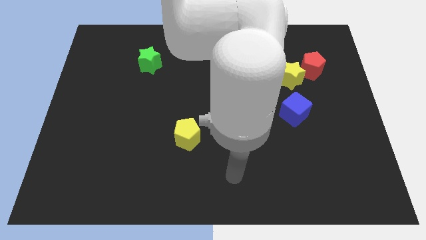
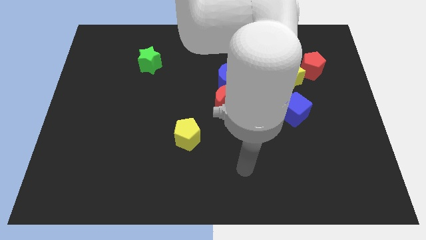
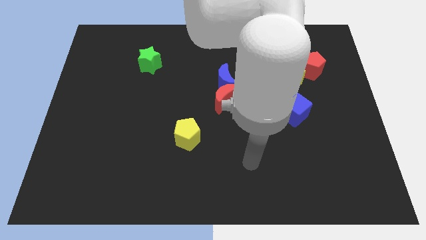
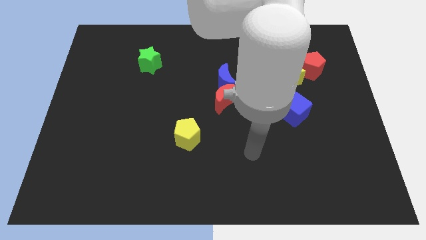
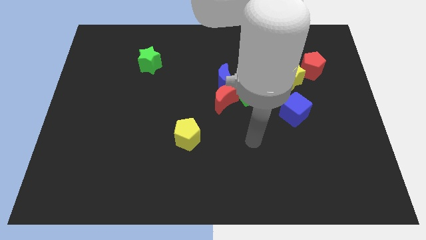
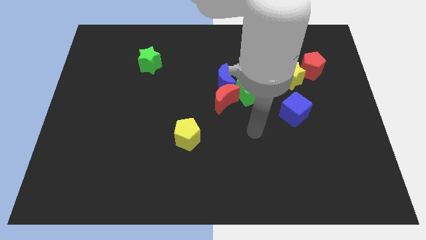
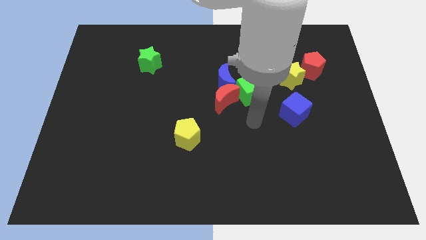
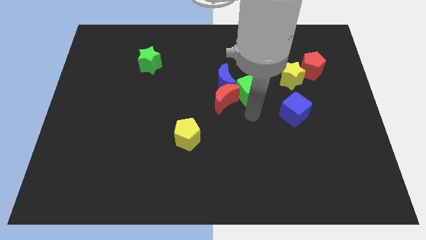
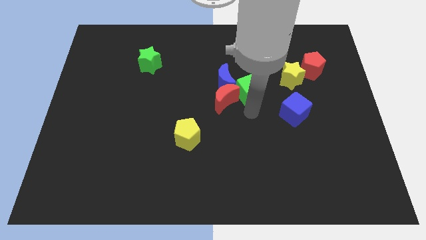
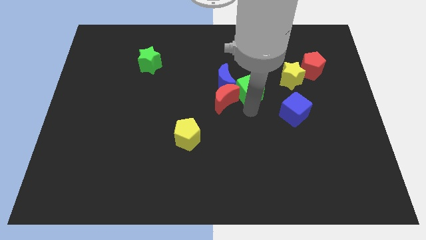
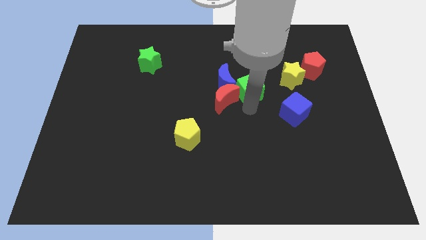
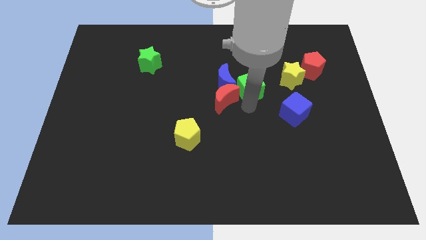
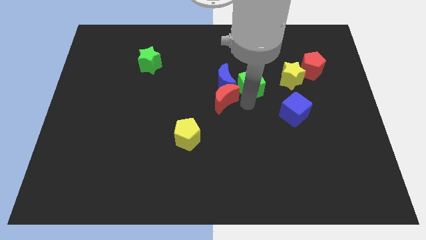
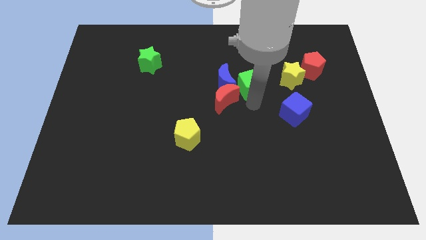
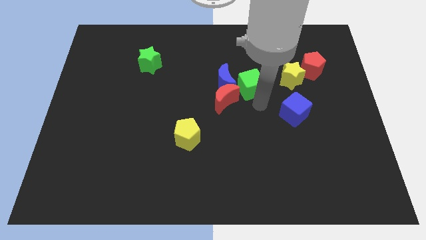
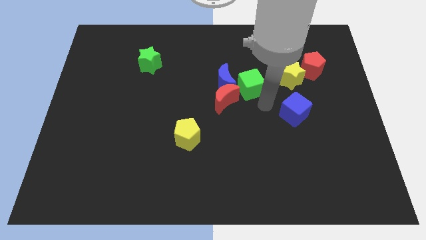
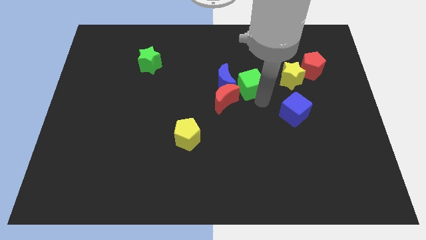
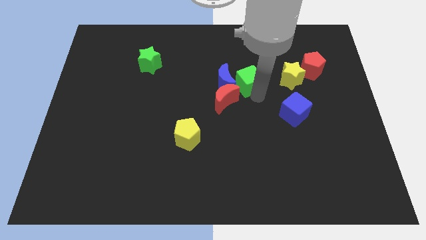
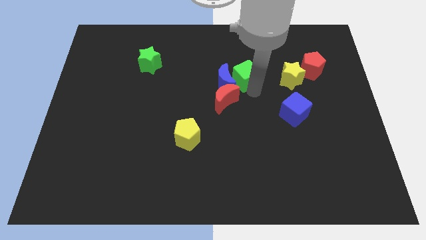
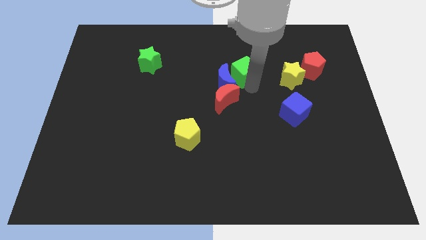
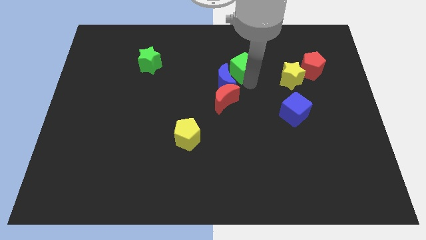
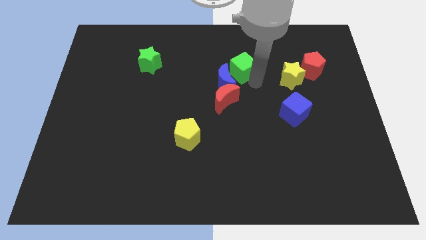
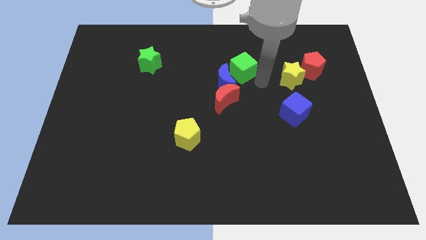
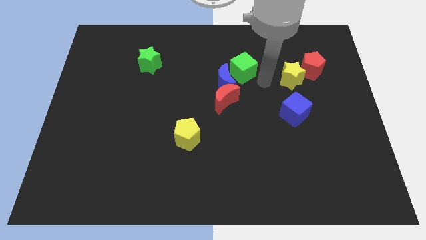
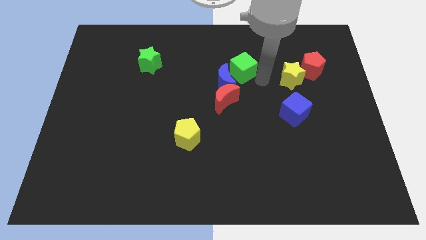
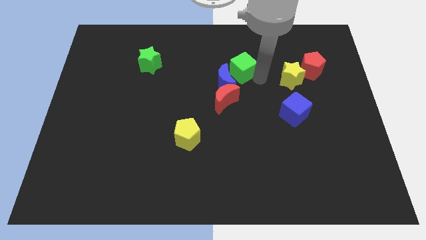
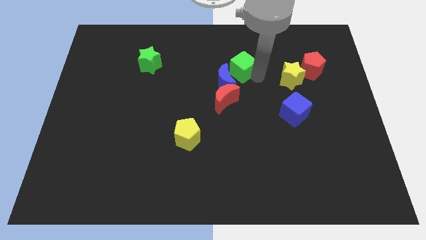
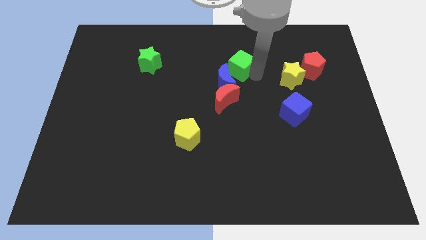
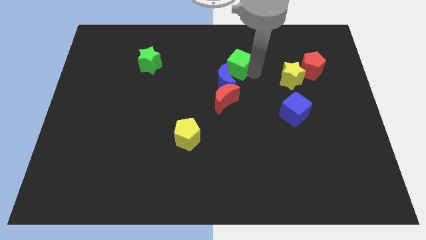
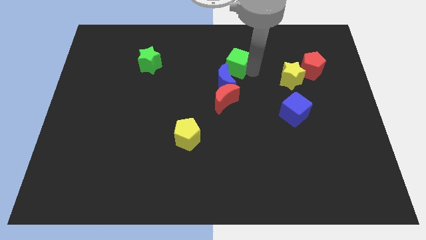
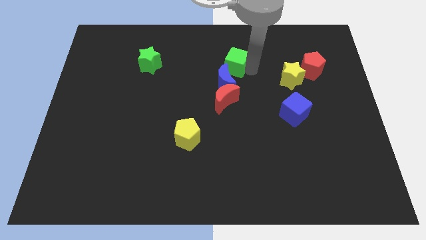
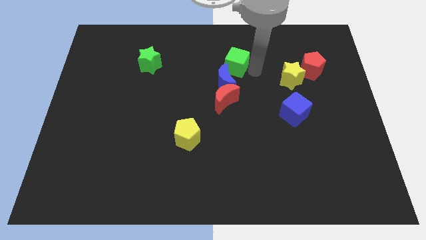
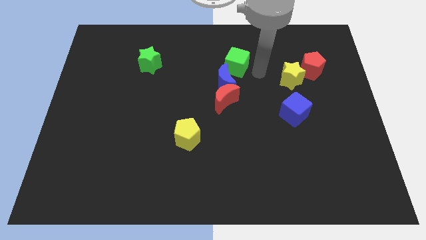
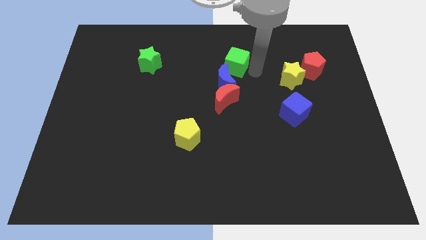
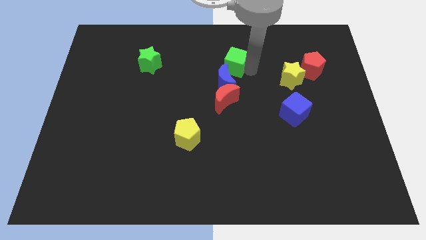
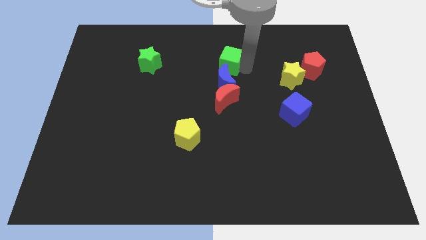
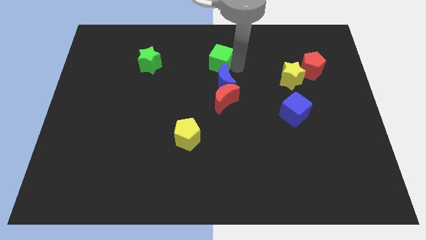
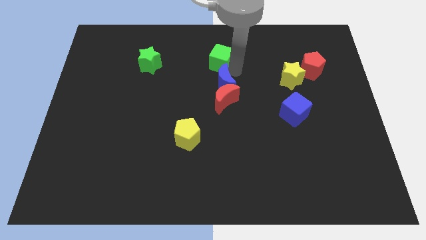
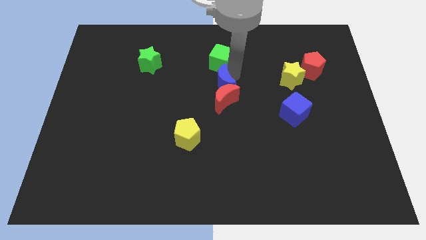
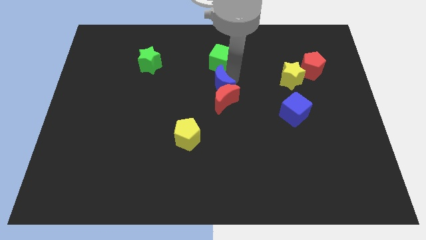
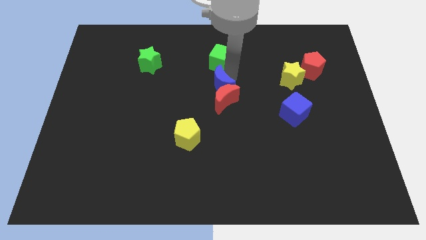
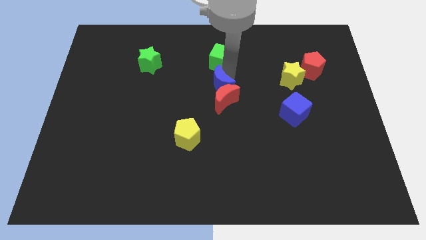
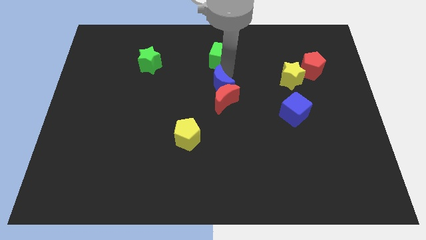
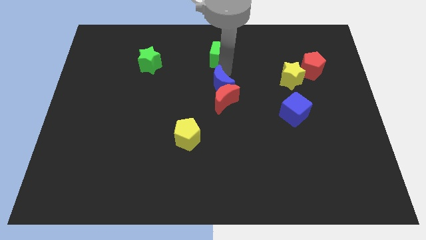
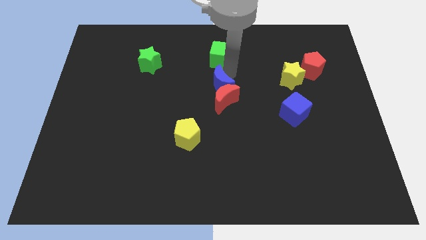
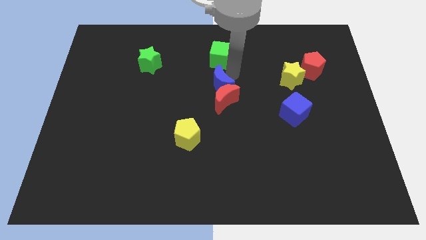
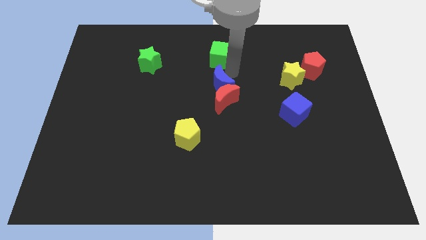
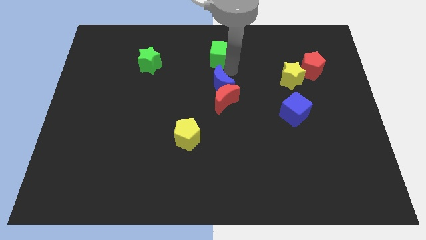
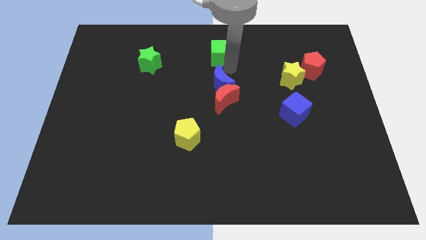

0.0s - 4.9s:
slide the green cube to the towards your base

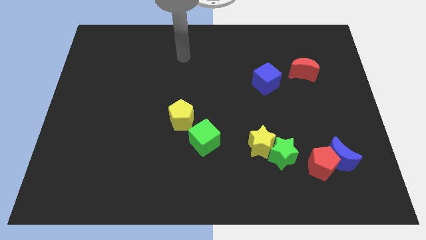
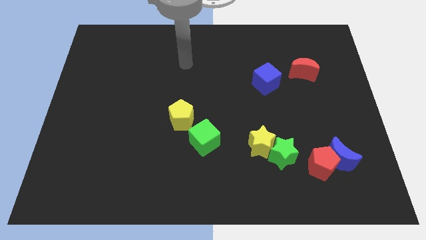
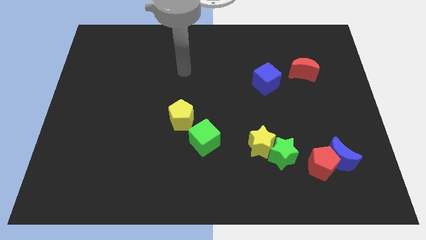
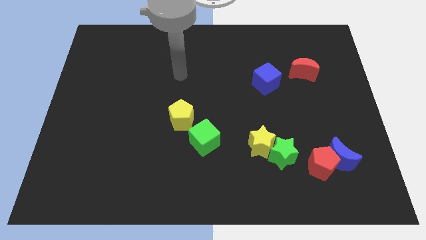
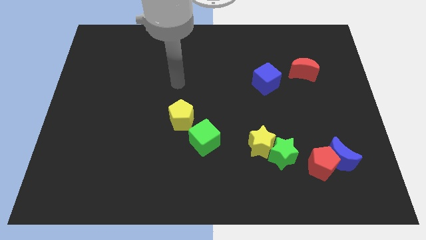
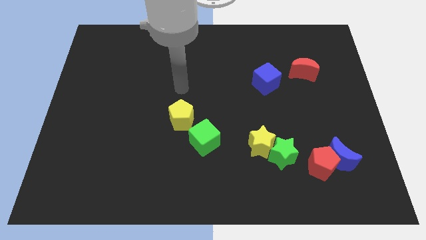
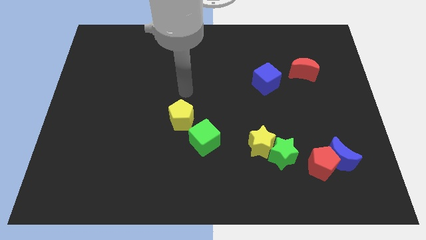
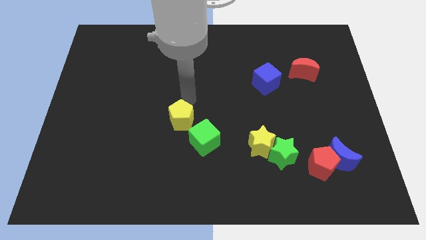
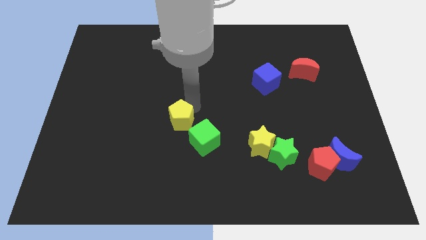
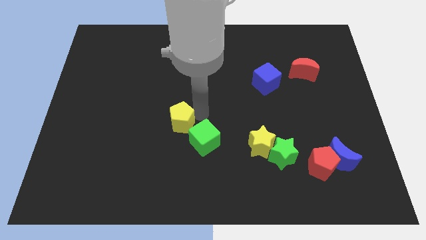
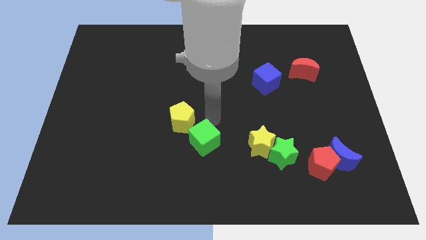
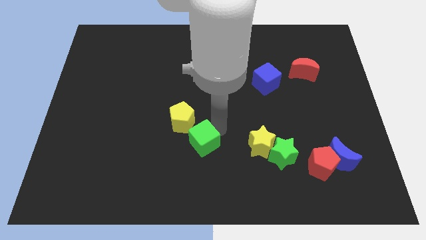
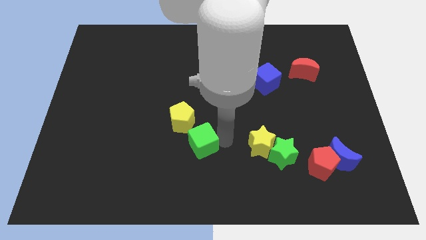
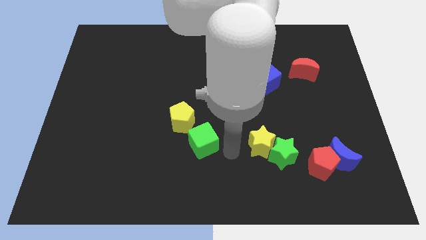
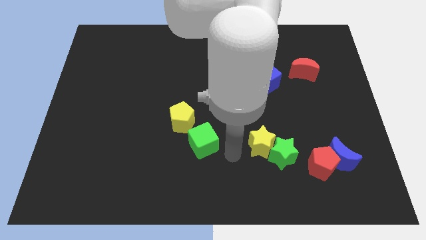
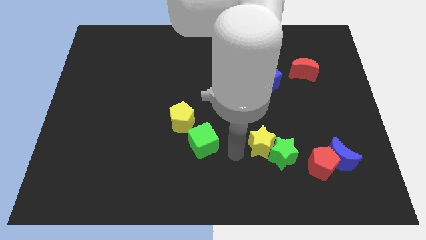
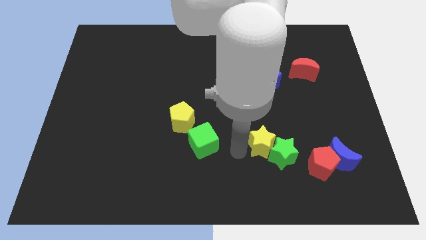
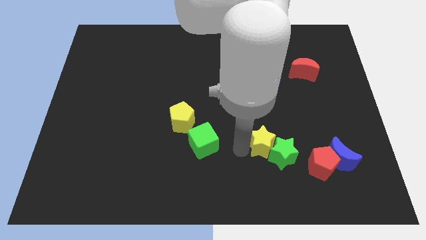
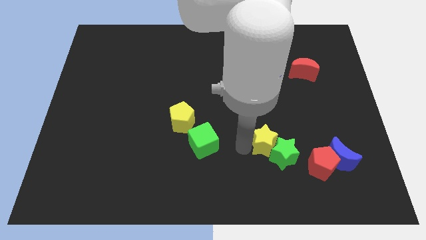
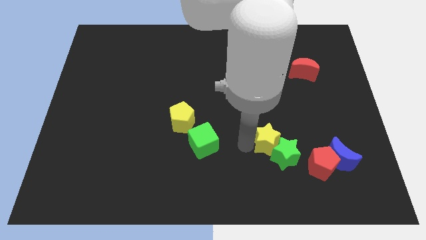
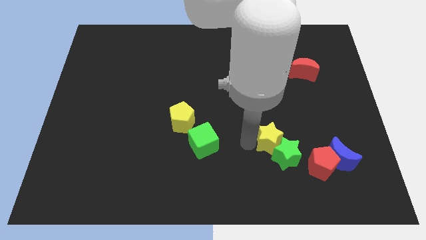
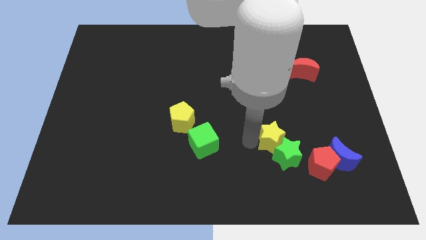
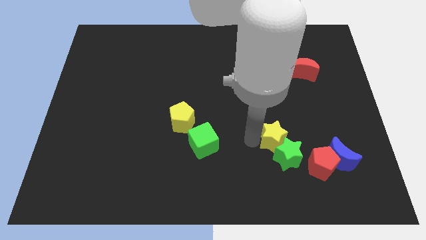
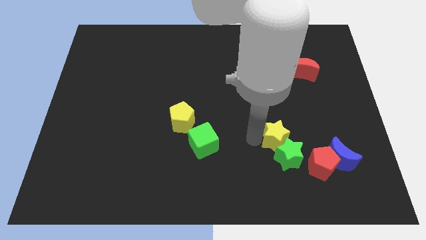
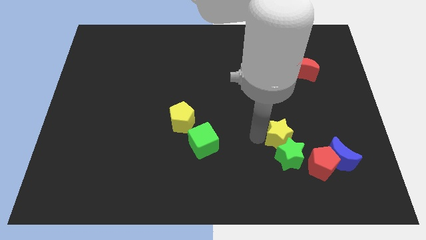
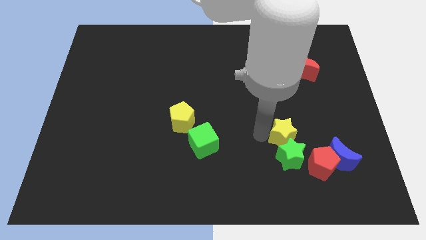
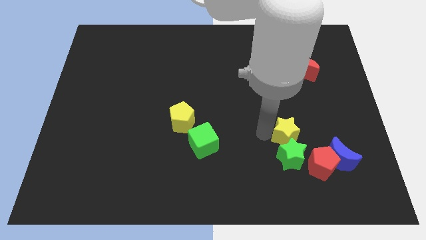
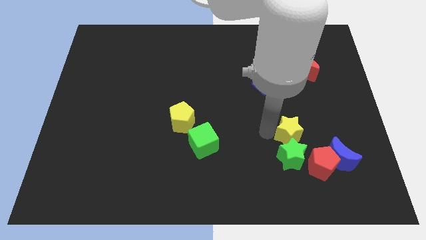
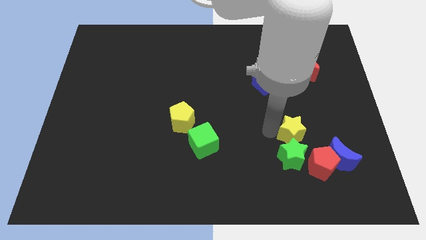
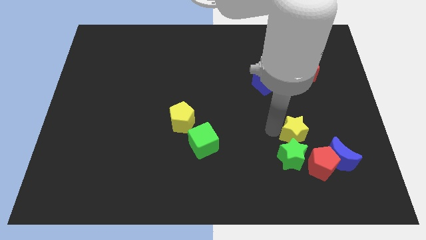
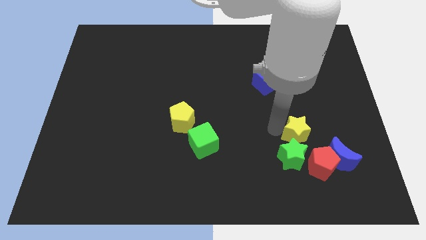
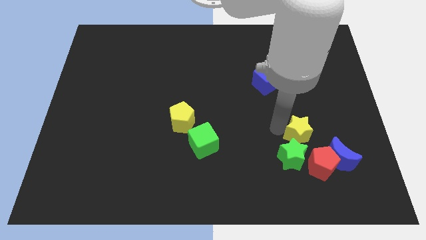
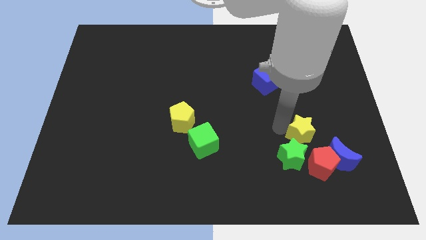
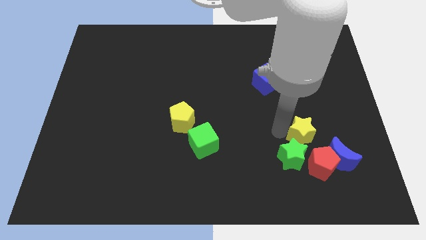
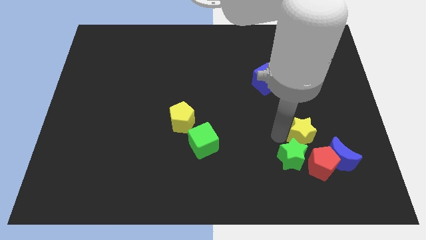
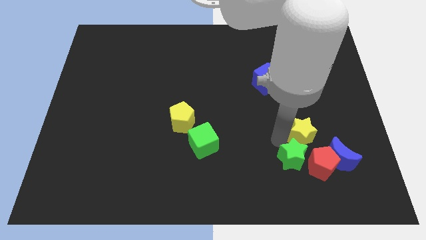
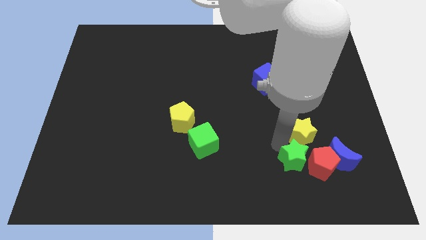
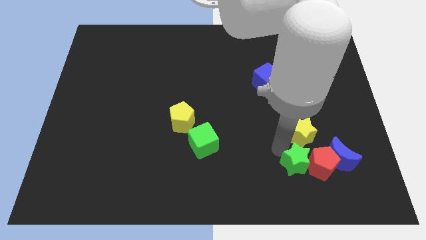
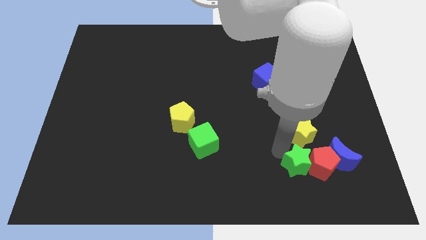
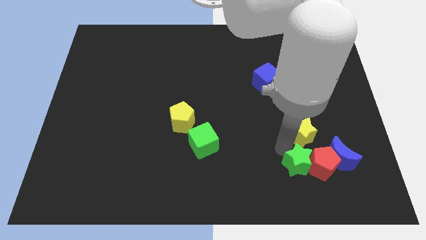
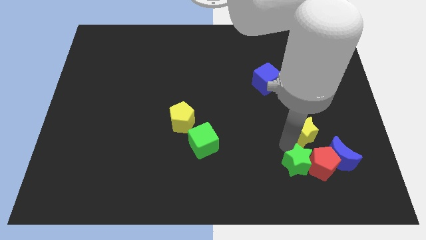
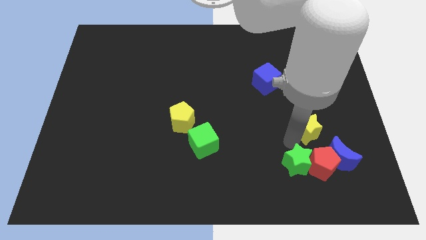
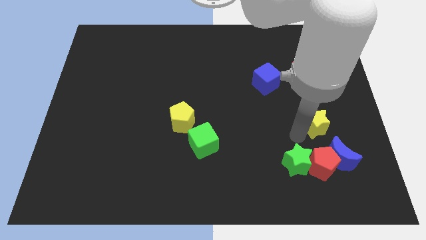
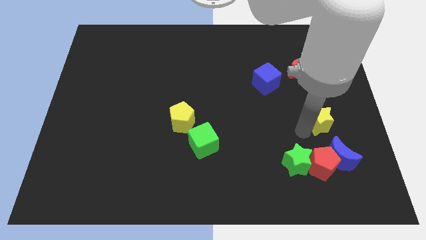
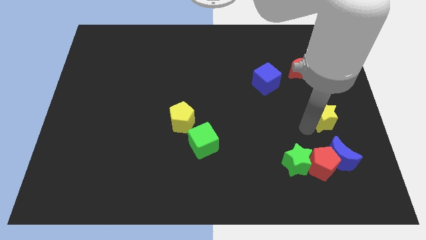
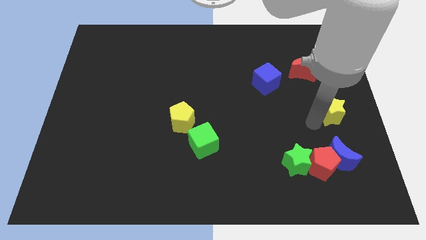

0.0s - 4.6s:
push the yellow star to the right side
